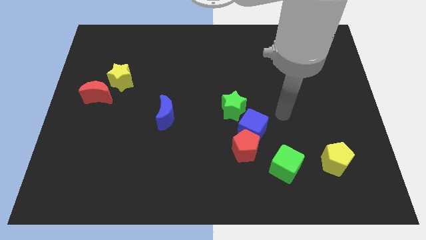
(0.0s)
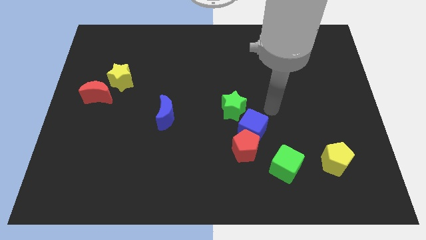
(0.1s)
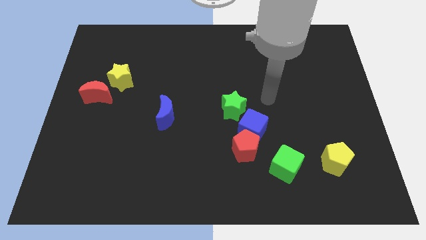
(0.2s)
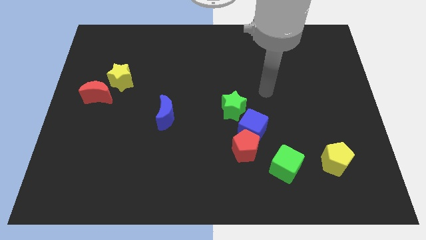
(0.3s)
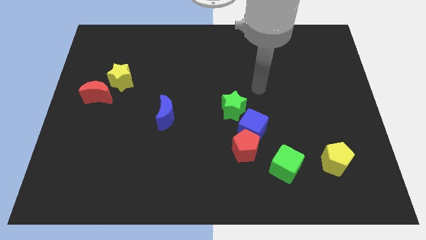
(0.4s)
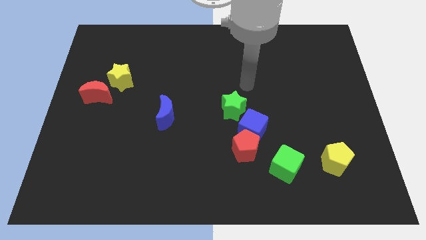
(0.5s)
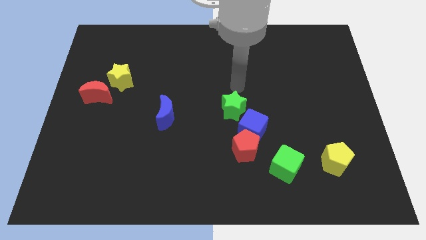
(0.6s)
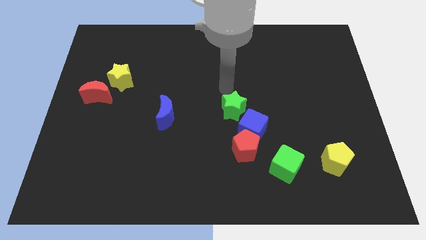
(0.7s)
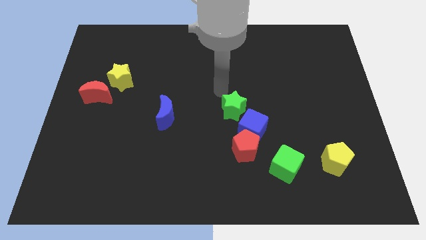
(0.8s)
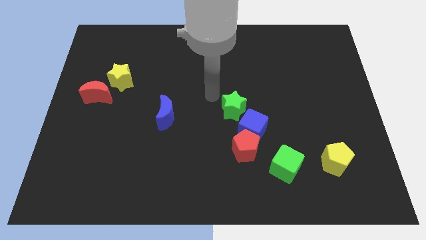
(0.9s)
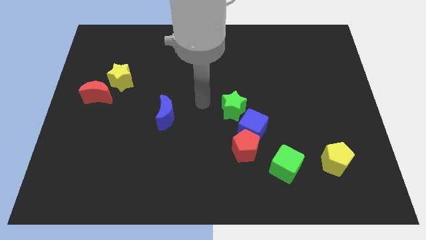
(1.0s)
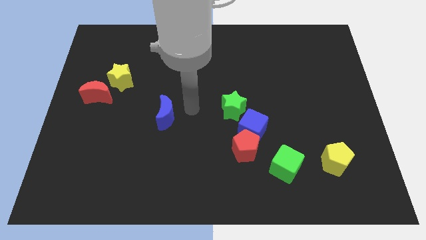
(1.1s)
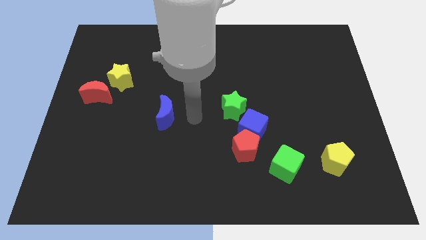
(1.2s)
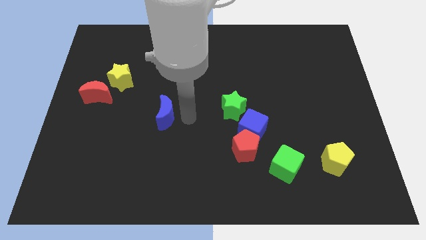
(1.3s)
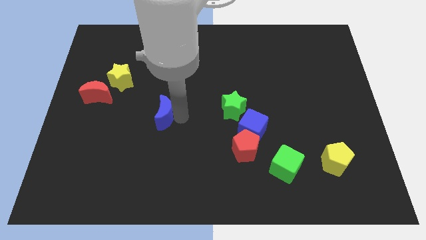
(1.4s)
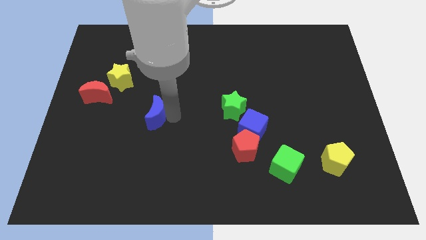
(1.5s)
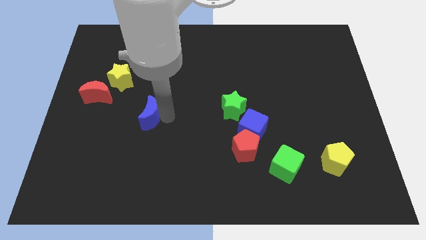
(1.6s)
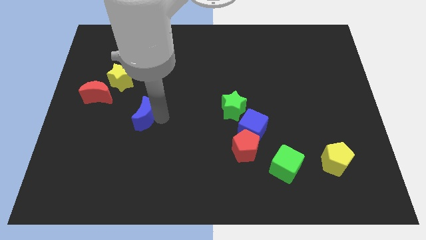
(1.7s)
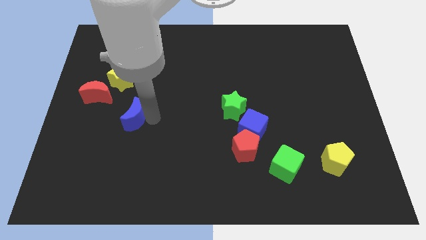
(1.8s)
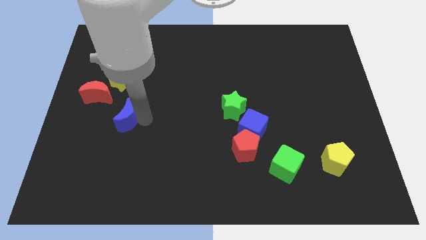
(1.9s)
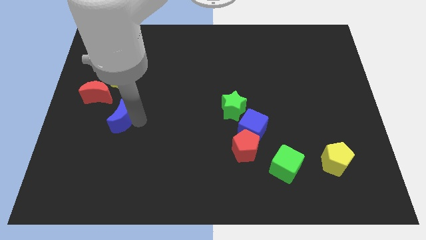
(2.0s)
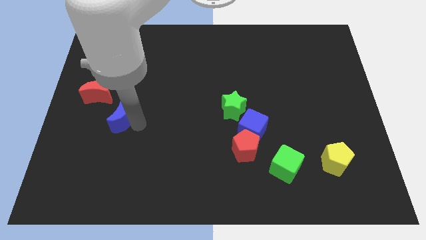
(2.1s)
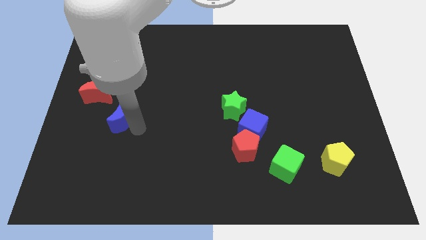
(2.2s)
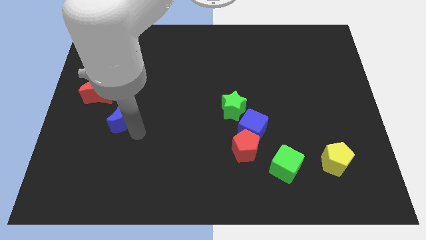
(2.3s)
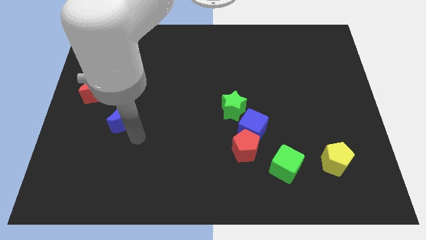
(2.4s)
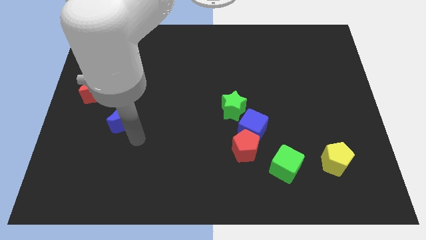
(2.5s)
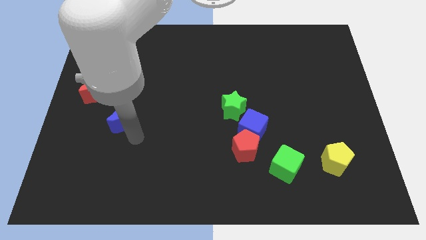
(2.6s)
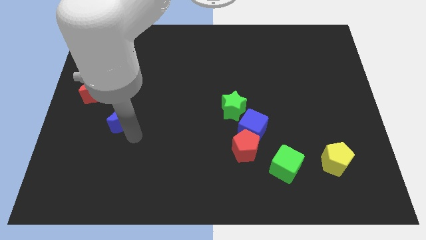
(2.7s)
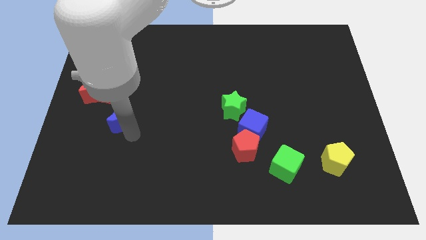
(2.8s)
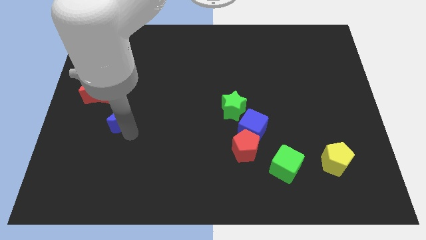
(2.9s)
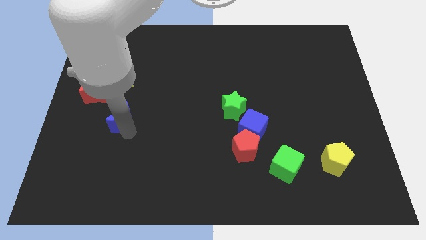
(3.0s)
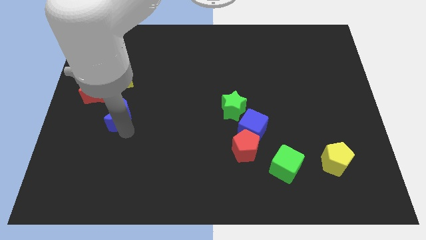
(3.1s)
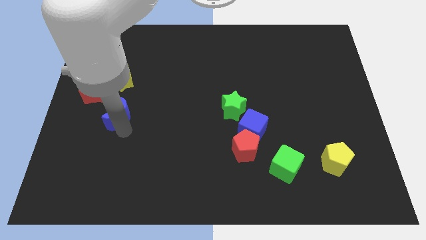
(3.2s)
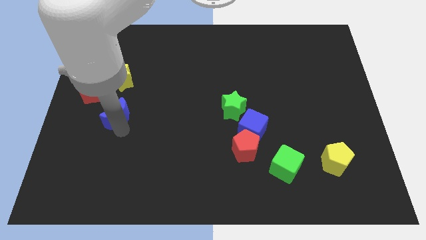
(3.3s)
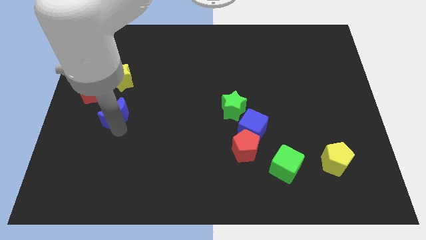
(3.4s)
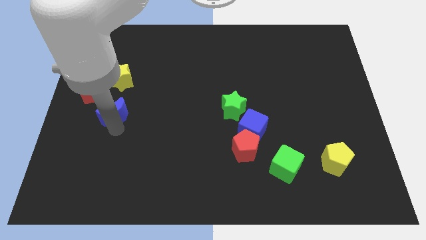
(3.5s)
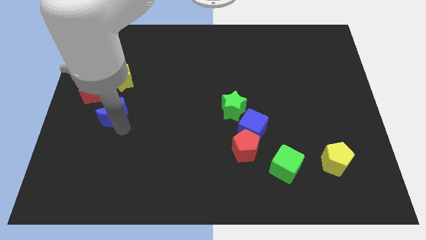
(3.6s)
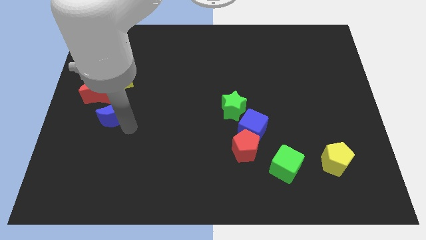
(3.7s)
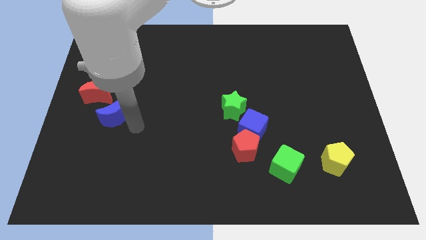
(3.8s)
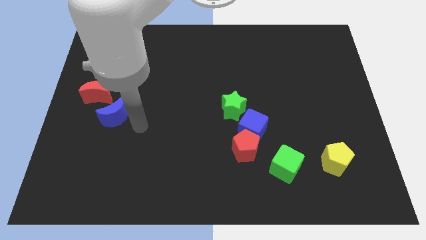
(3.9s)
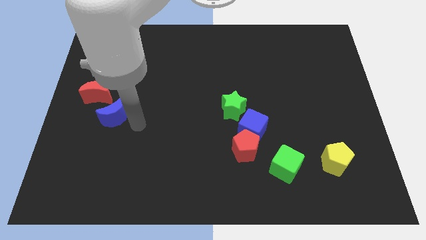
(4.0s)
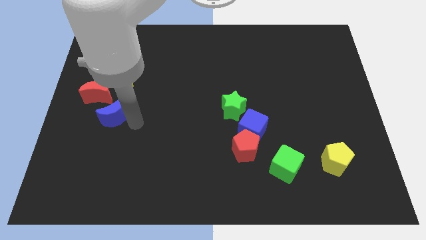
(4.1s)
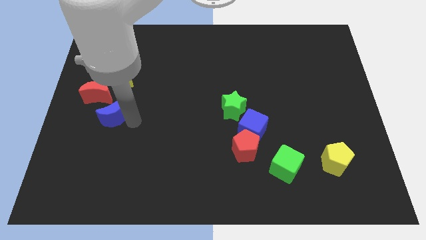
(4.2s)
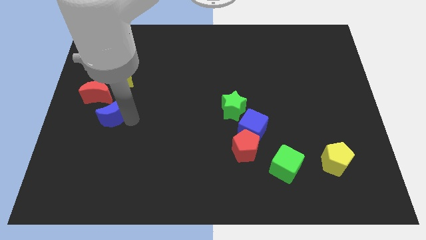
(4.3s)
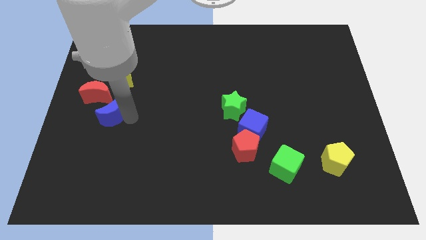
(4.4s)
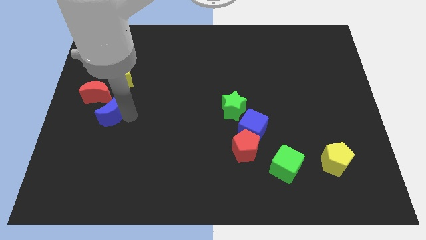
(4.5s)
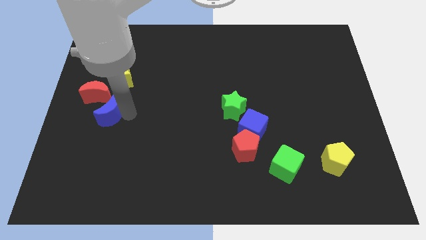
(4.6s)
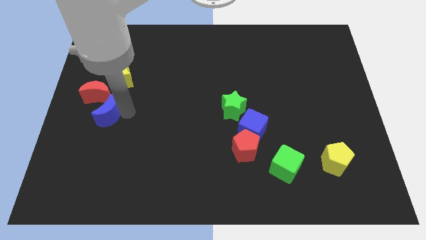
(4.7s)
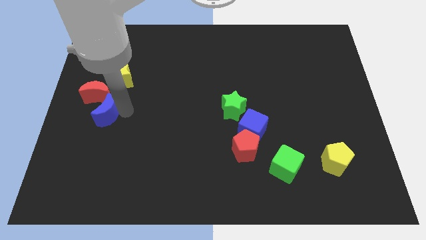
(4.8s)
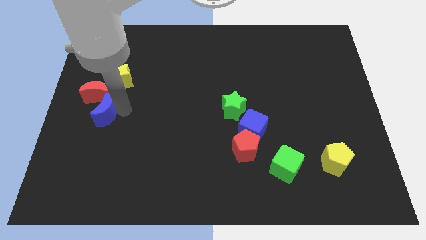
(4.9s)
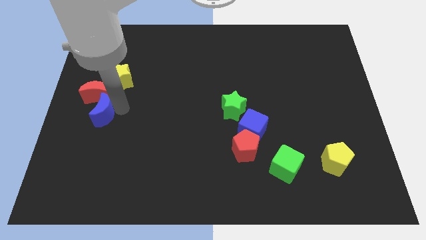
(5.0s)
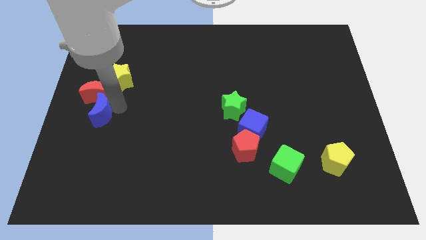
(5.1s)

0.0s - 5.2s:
slide the blue moon to the left side

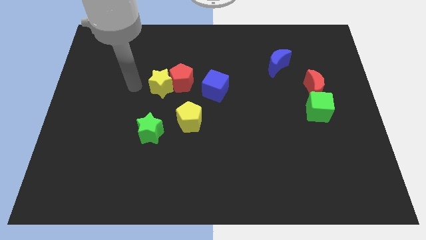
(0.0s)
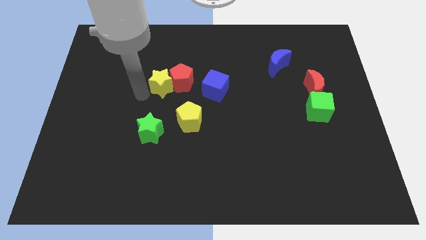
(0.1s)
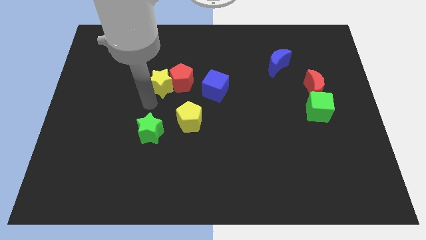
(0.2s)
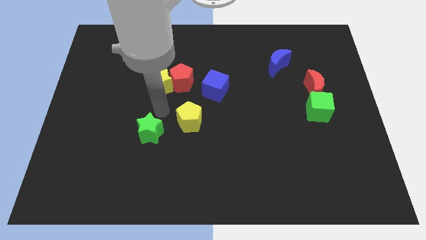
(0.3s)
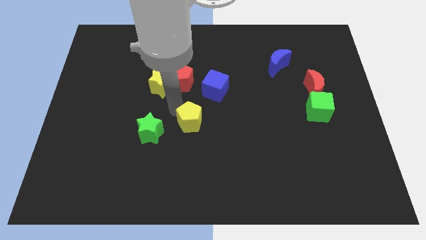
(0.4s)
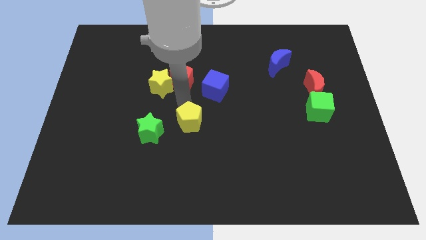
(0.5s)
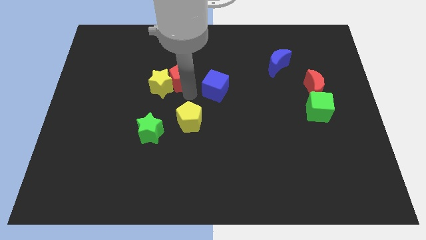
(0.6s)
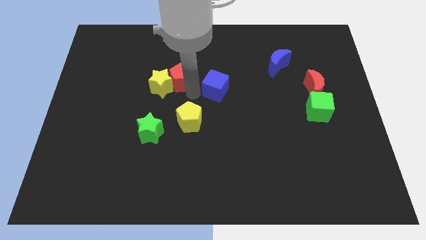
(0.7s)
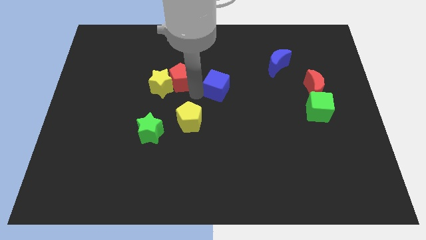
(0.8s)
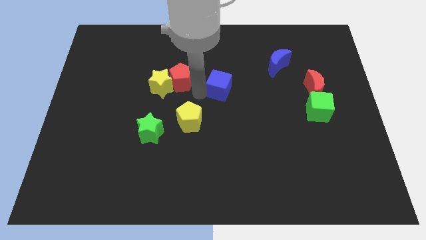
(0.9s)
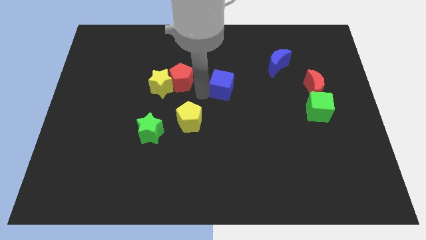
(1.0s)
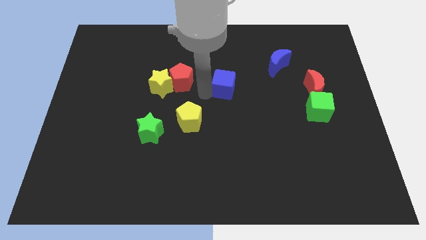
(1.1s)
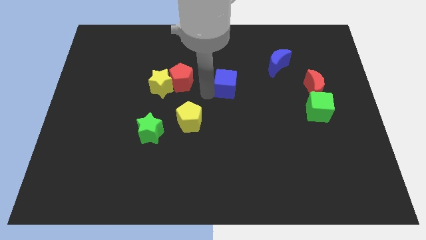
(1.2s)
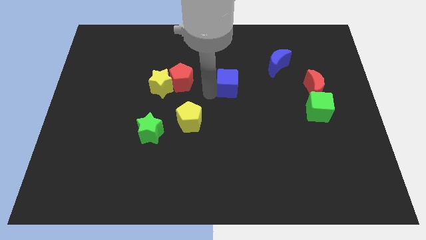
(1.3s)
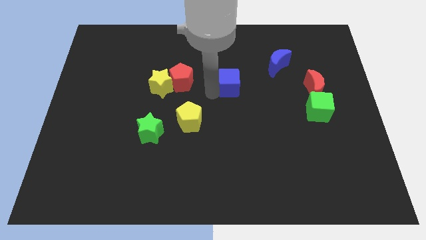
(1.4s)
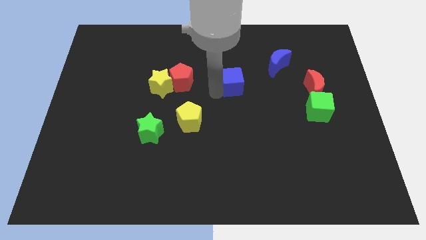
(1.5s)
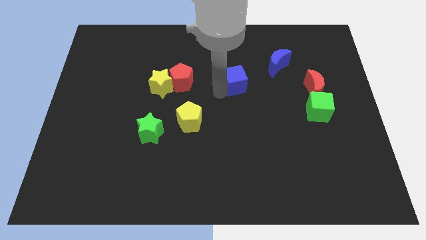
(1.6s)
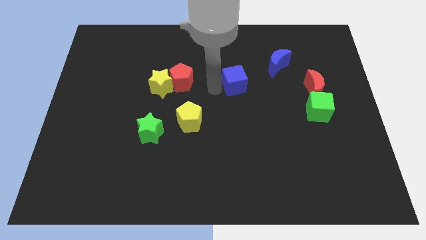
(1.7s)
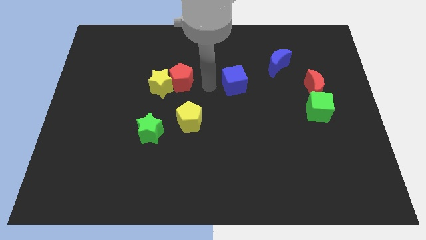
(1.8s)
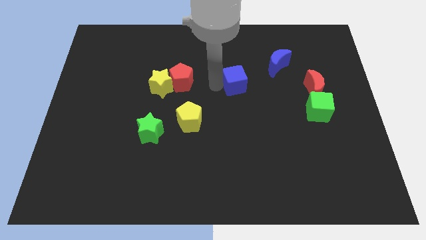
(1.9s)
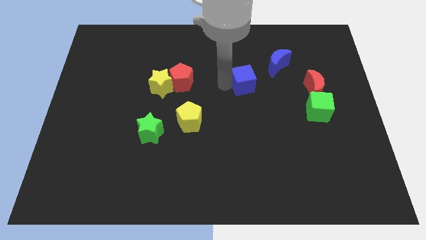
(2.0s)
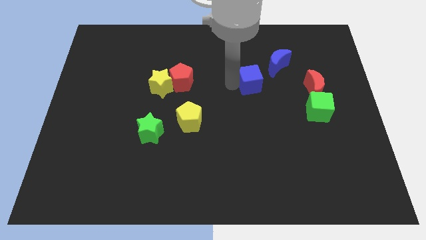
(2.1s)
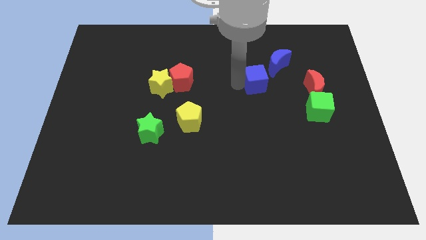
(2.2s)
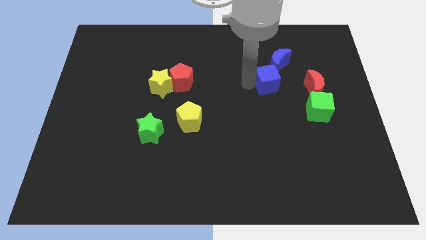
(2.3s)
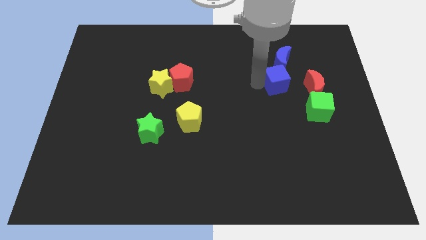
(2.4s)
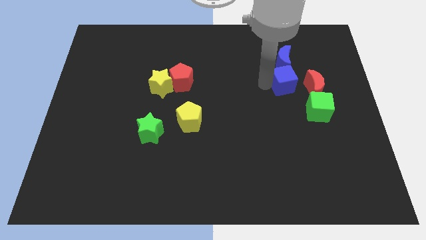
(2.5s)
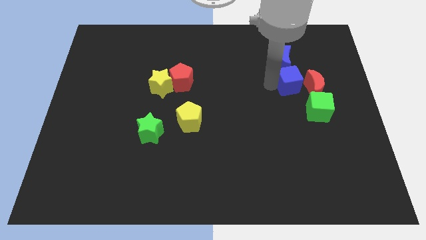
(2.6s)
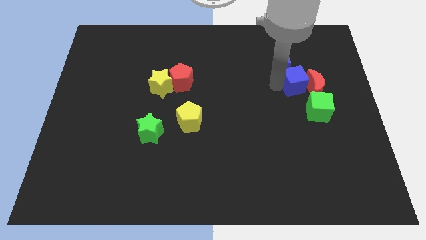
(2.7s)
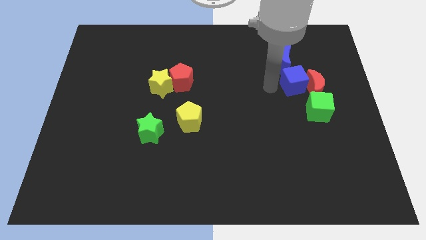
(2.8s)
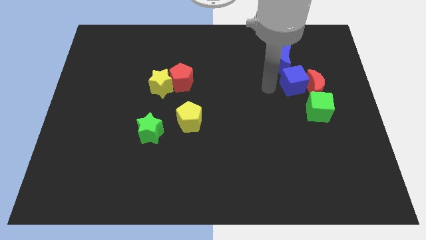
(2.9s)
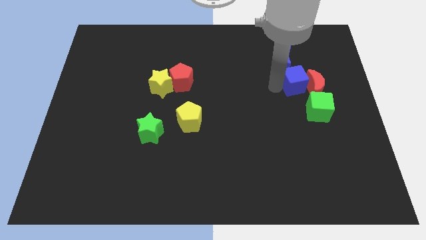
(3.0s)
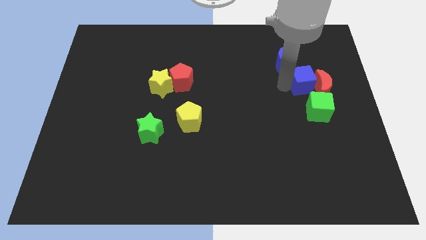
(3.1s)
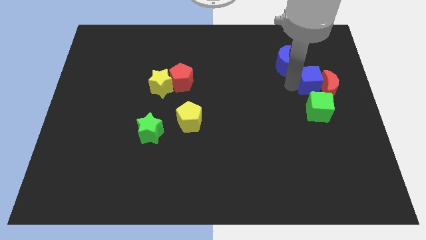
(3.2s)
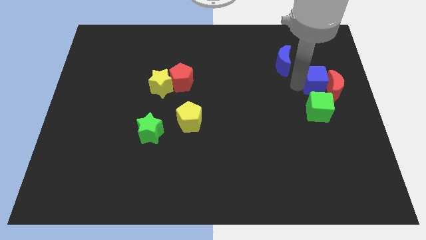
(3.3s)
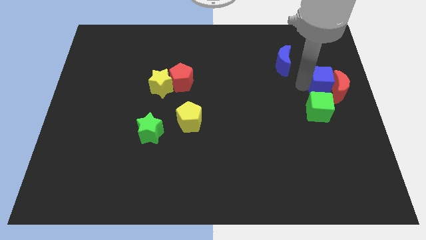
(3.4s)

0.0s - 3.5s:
put the blue cube to the right side of the board
